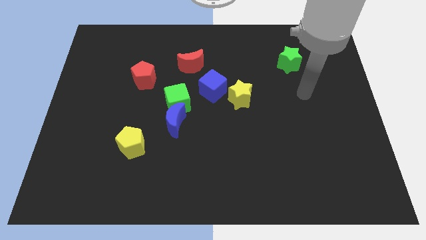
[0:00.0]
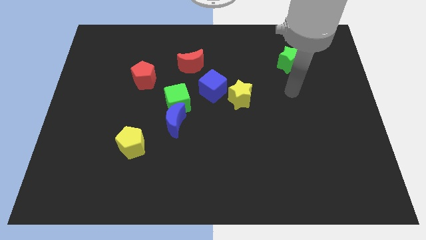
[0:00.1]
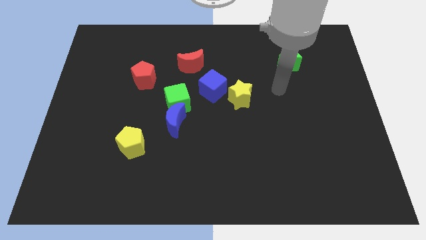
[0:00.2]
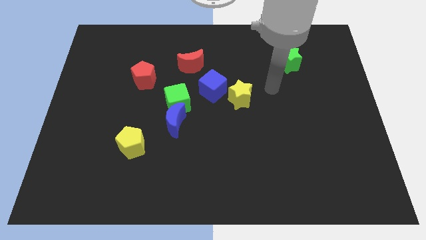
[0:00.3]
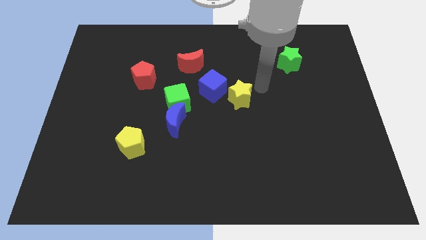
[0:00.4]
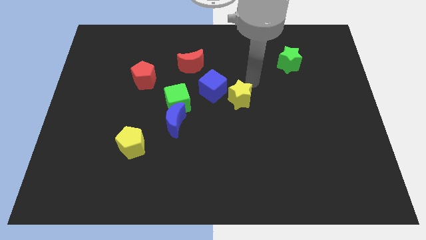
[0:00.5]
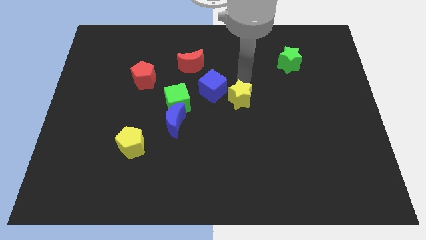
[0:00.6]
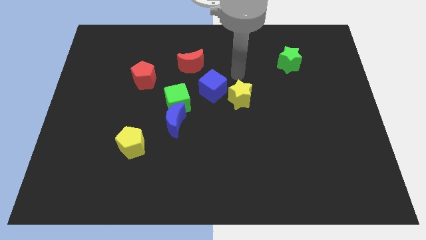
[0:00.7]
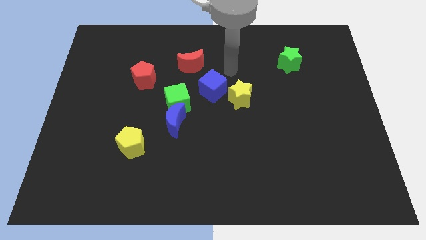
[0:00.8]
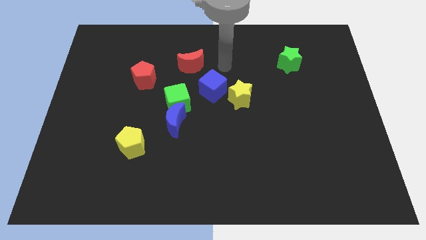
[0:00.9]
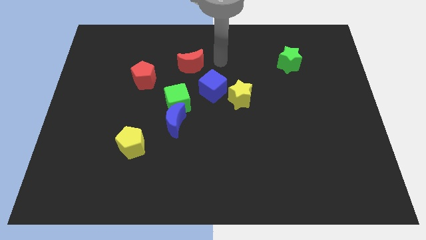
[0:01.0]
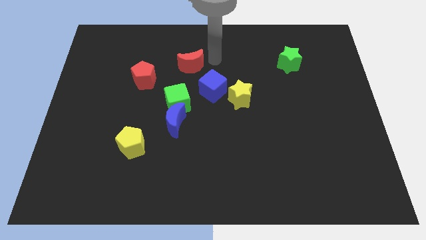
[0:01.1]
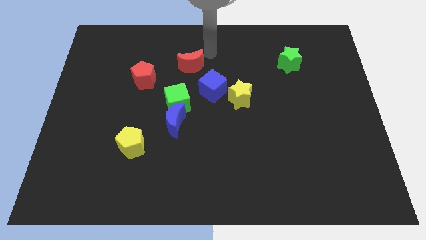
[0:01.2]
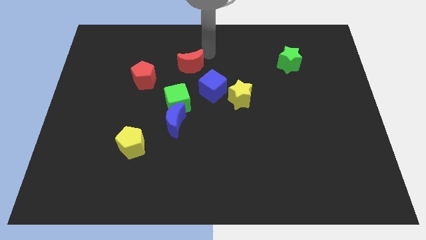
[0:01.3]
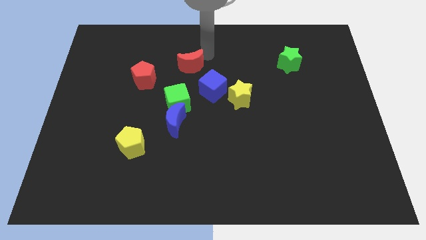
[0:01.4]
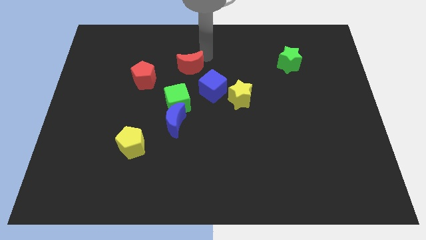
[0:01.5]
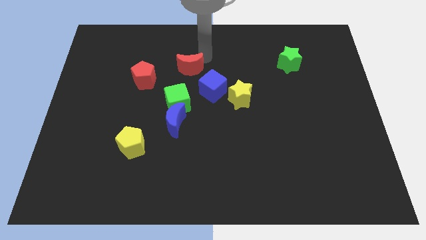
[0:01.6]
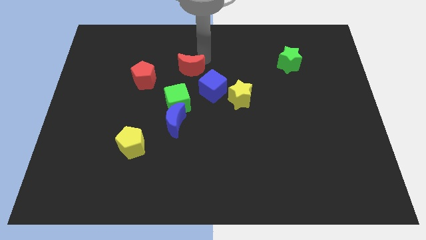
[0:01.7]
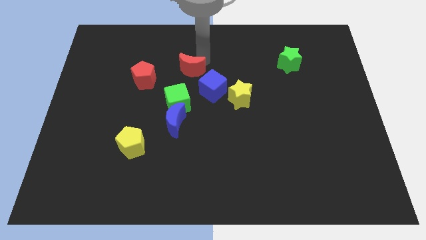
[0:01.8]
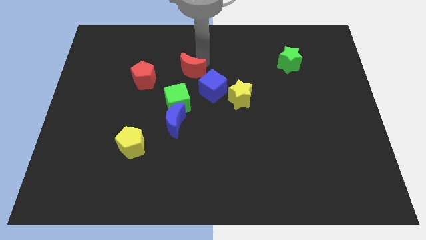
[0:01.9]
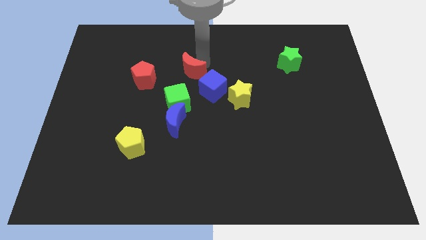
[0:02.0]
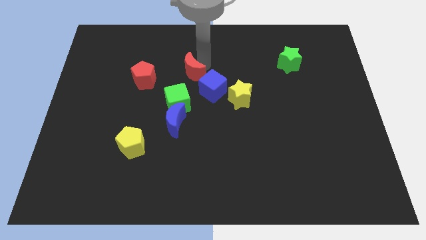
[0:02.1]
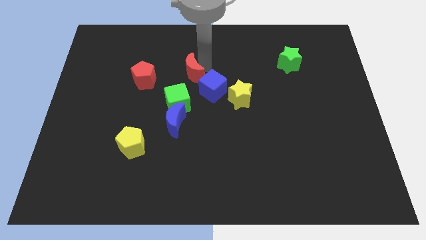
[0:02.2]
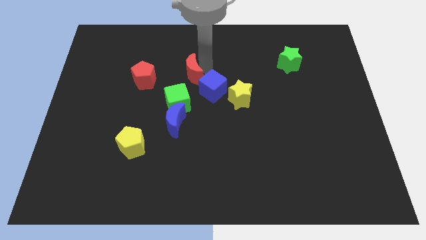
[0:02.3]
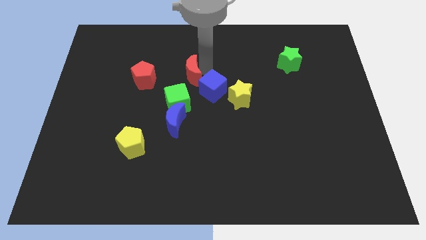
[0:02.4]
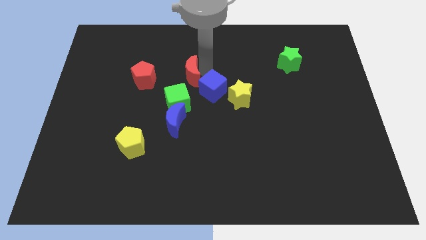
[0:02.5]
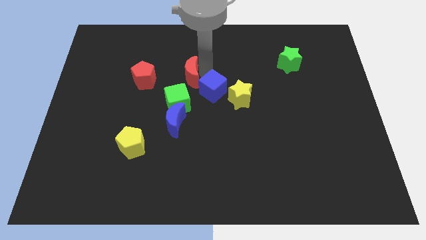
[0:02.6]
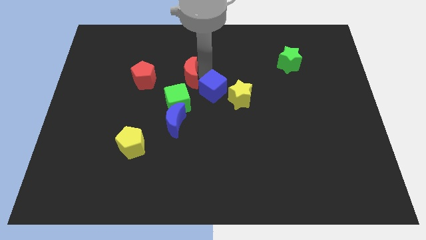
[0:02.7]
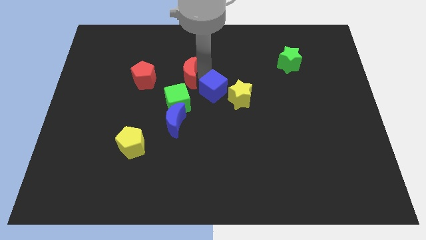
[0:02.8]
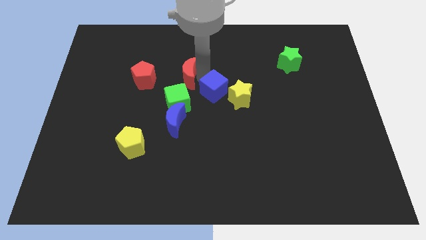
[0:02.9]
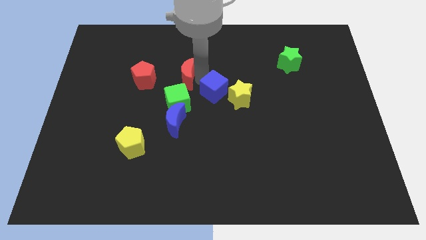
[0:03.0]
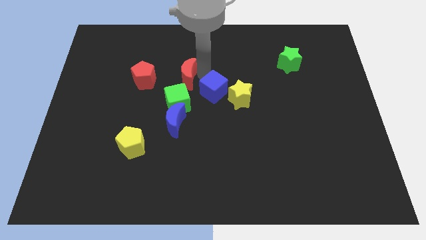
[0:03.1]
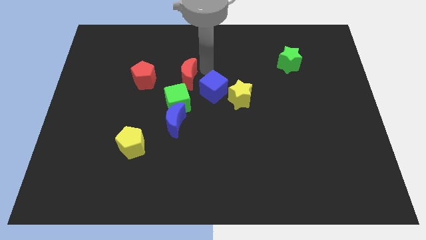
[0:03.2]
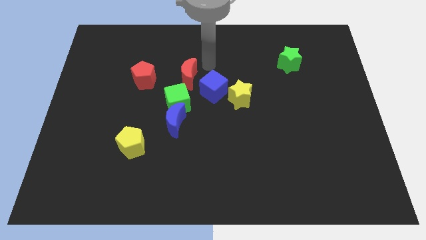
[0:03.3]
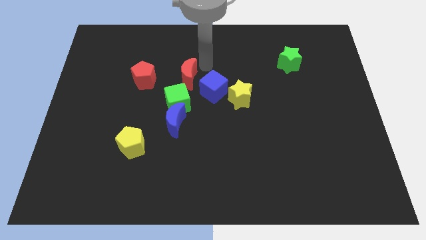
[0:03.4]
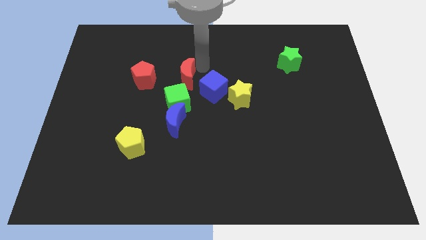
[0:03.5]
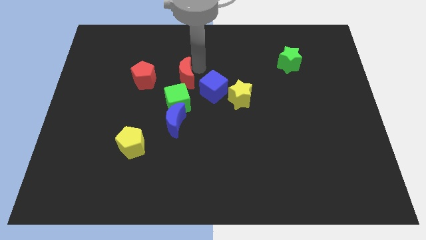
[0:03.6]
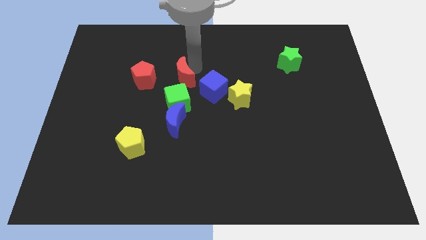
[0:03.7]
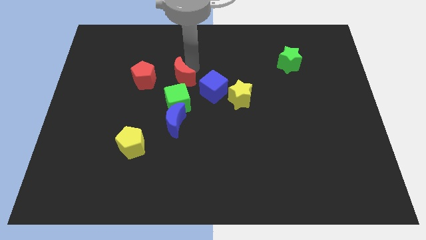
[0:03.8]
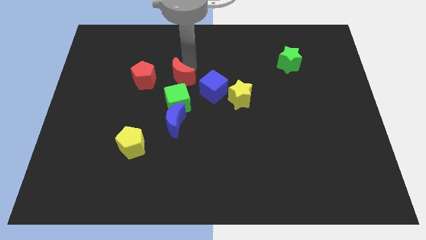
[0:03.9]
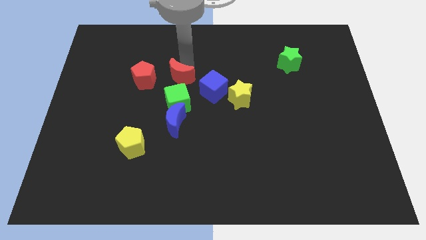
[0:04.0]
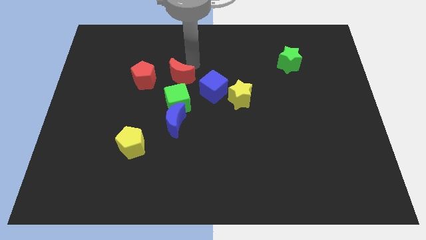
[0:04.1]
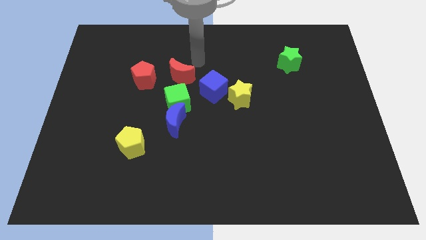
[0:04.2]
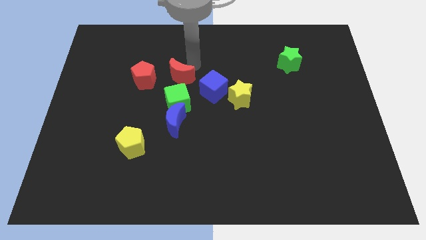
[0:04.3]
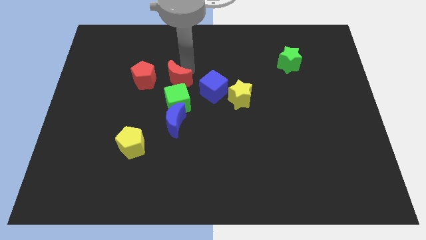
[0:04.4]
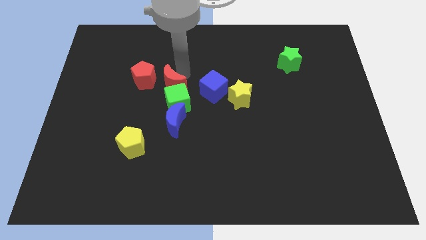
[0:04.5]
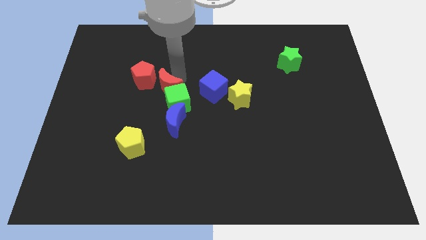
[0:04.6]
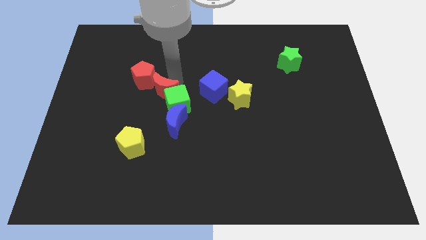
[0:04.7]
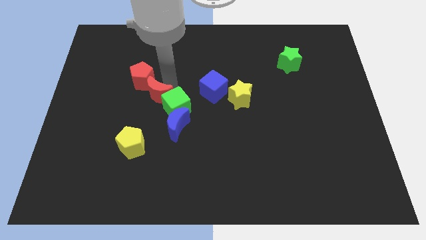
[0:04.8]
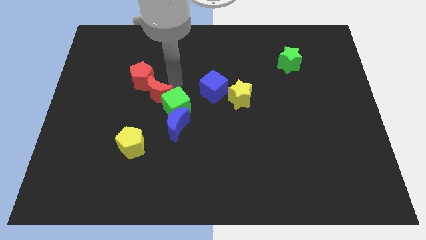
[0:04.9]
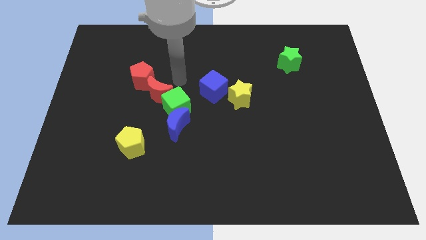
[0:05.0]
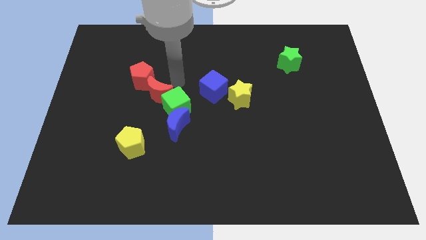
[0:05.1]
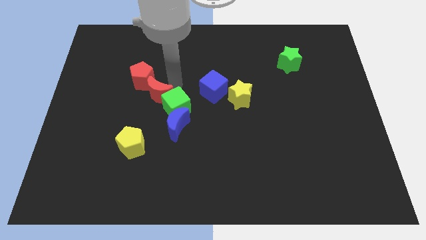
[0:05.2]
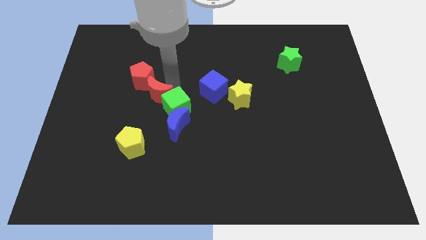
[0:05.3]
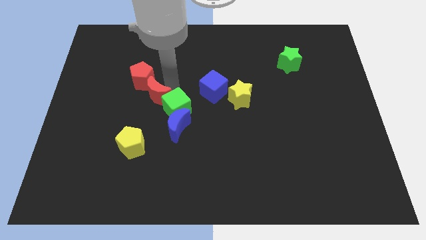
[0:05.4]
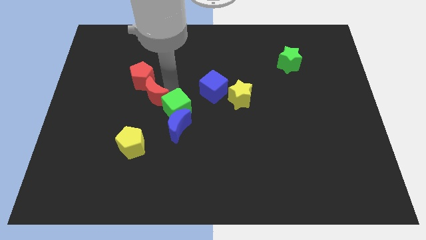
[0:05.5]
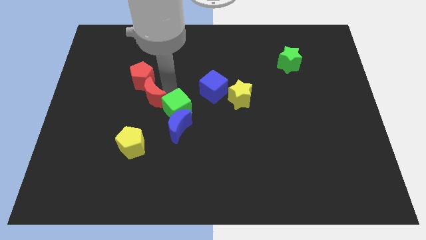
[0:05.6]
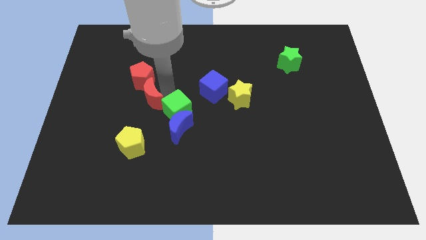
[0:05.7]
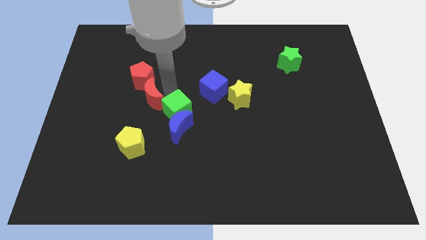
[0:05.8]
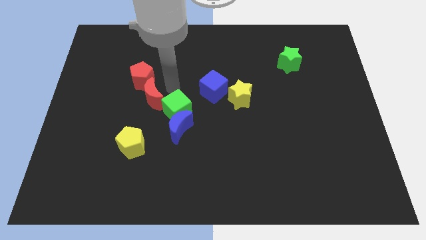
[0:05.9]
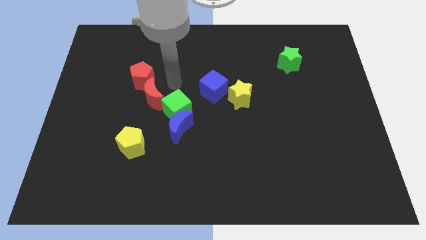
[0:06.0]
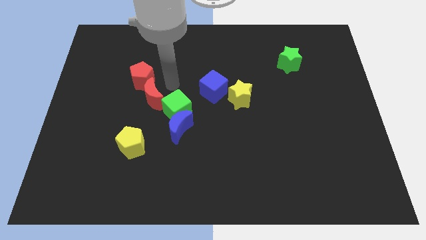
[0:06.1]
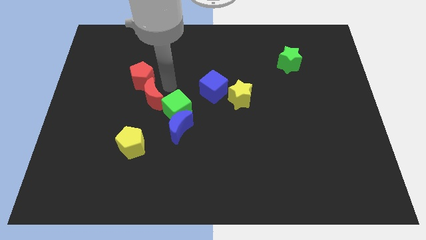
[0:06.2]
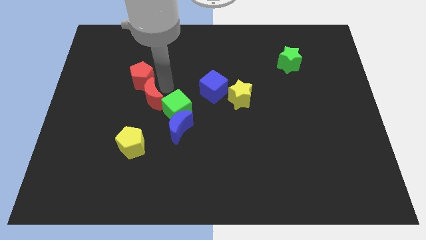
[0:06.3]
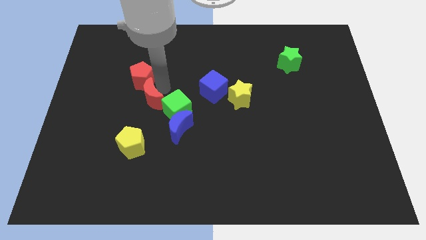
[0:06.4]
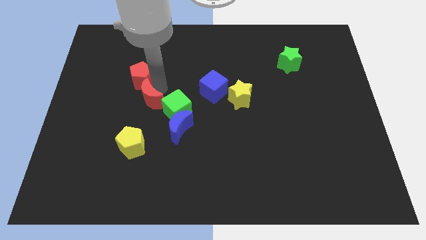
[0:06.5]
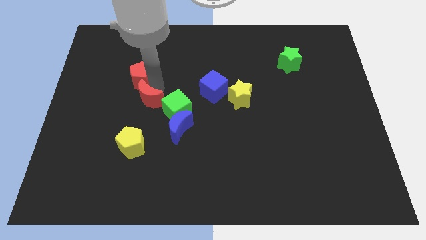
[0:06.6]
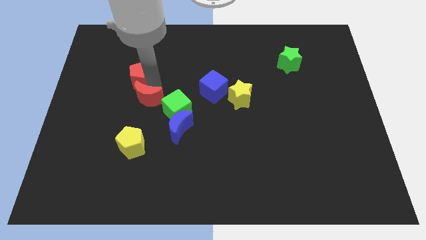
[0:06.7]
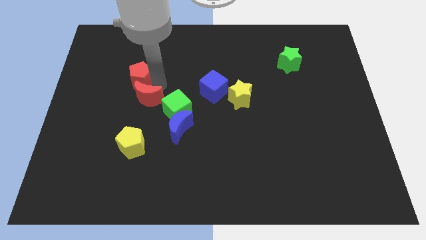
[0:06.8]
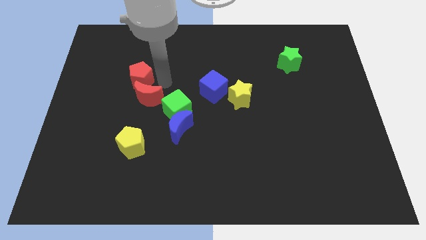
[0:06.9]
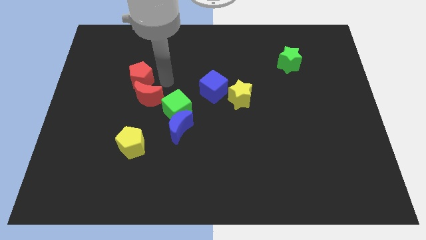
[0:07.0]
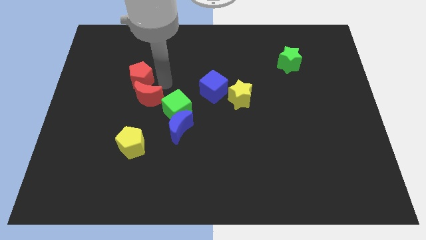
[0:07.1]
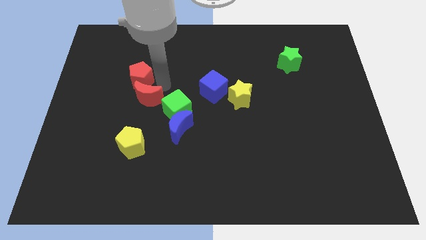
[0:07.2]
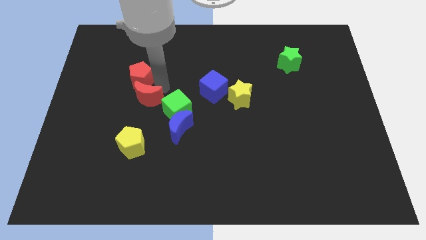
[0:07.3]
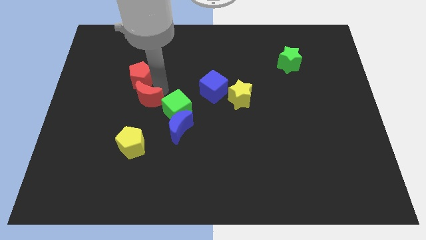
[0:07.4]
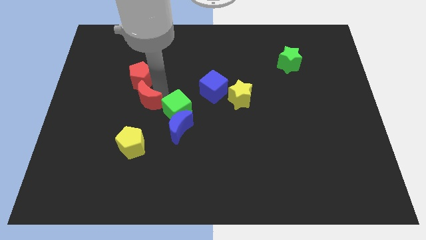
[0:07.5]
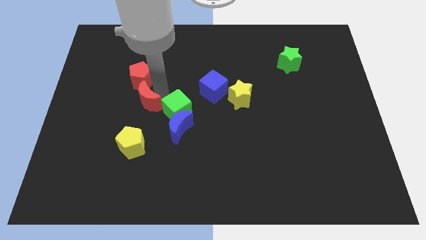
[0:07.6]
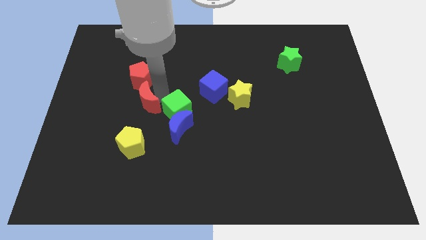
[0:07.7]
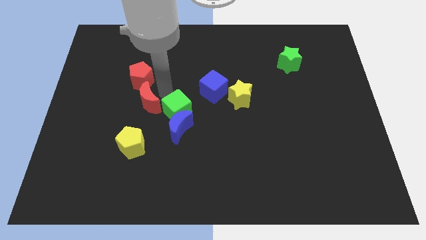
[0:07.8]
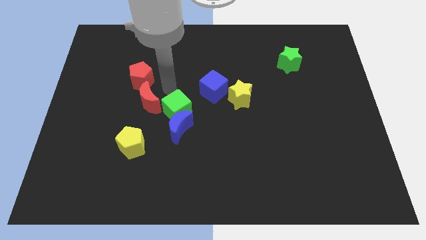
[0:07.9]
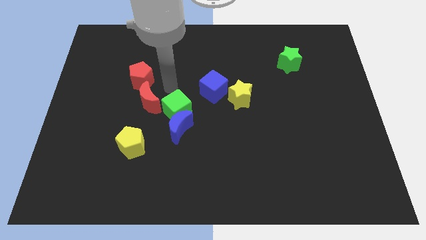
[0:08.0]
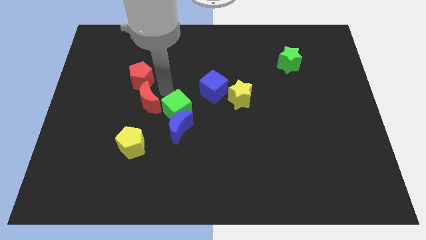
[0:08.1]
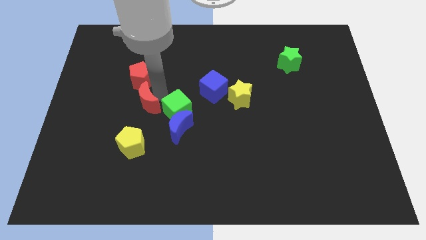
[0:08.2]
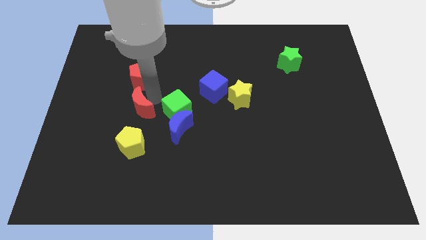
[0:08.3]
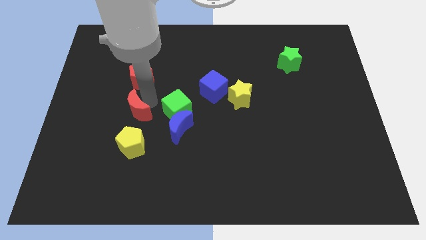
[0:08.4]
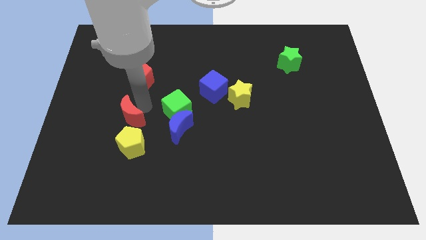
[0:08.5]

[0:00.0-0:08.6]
push the red moon downwards and then to the left
